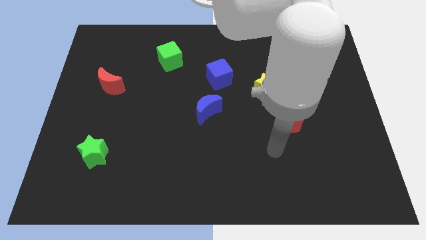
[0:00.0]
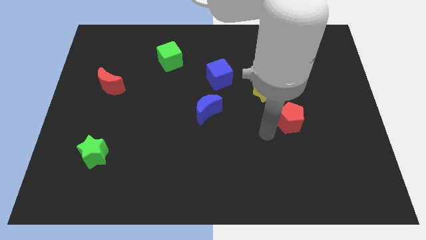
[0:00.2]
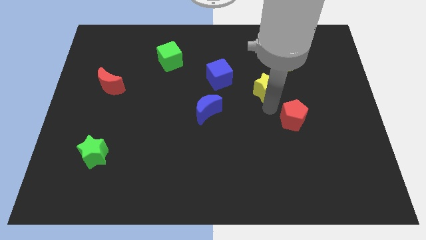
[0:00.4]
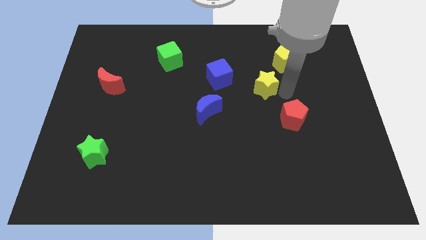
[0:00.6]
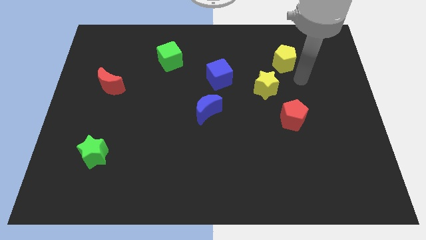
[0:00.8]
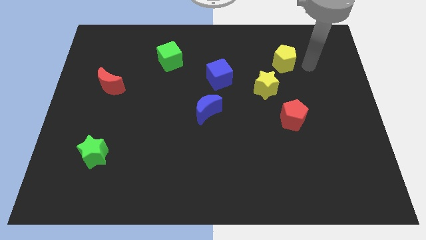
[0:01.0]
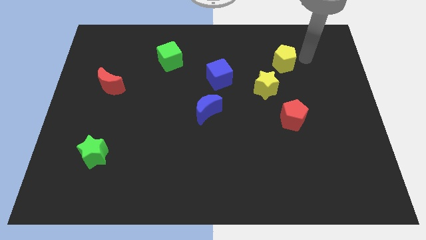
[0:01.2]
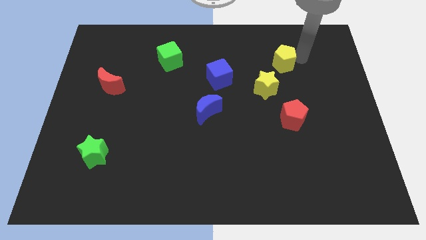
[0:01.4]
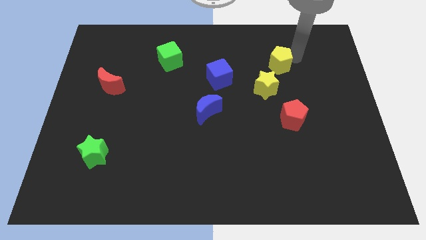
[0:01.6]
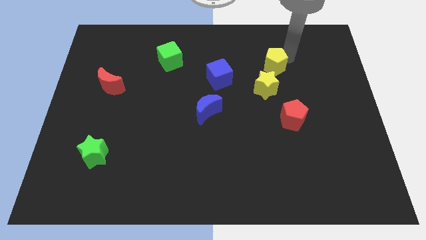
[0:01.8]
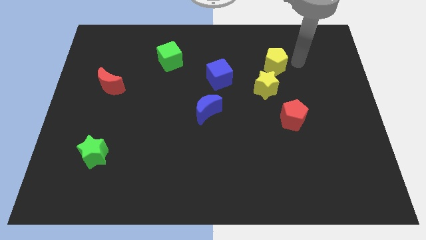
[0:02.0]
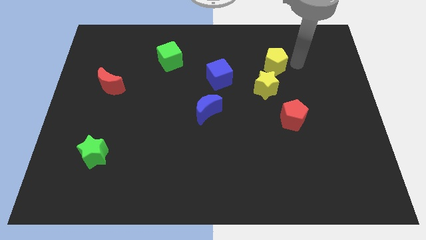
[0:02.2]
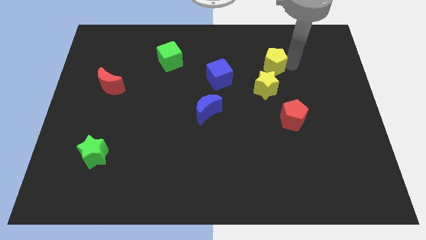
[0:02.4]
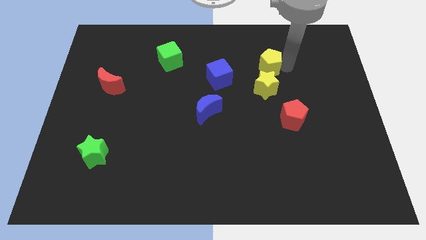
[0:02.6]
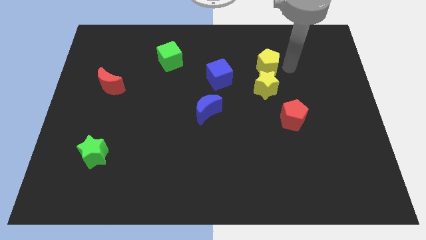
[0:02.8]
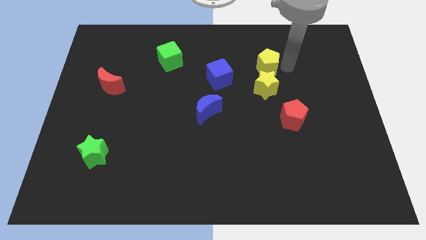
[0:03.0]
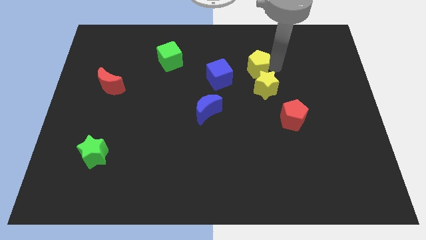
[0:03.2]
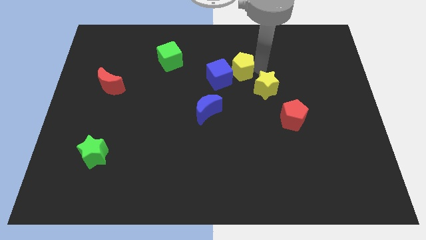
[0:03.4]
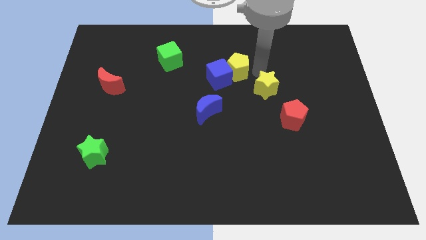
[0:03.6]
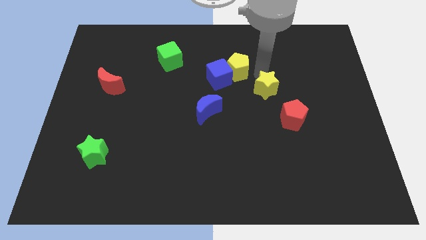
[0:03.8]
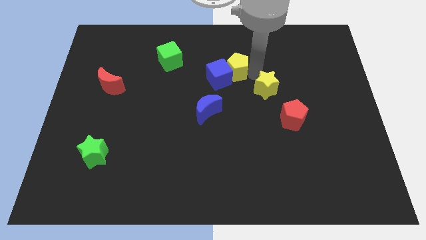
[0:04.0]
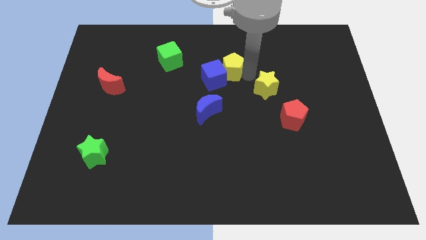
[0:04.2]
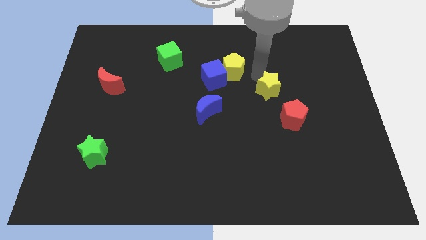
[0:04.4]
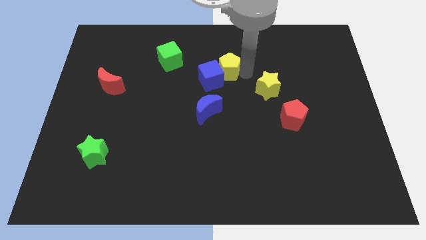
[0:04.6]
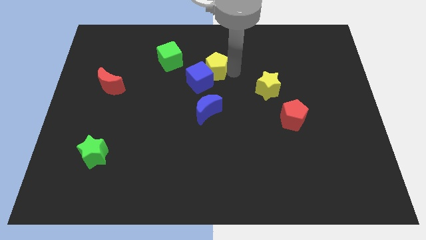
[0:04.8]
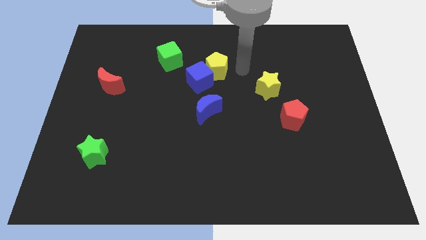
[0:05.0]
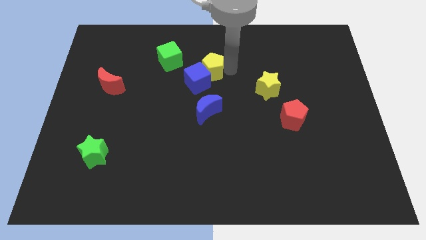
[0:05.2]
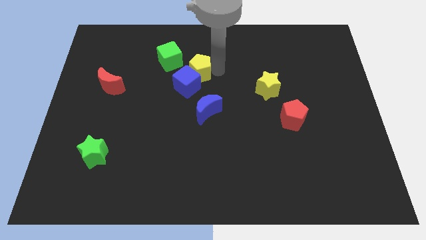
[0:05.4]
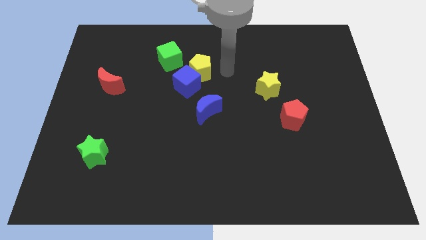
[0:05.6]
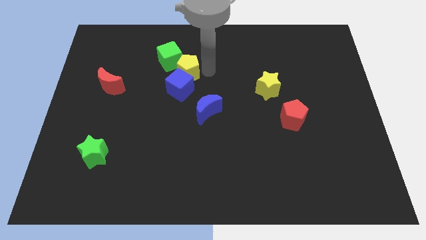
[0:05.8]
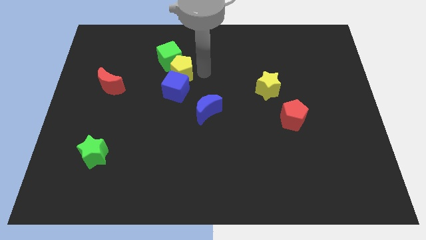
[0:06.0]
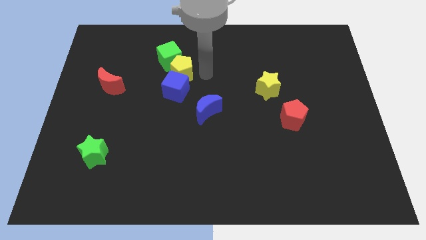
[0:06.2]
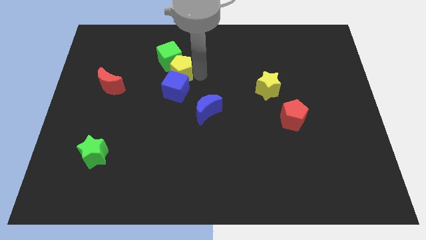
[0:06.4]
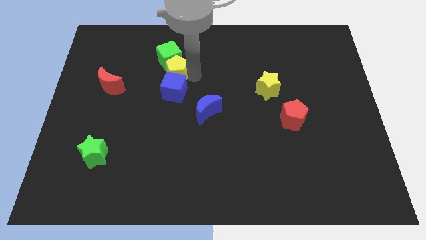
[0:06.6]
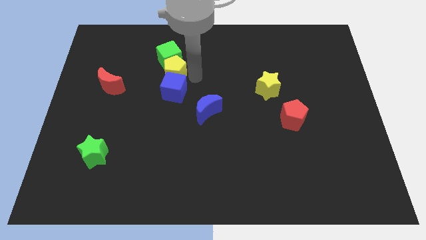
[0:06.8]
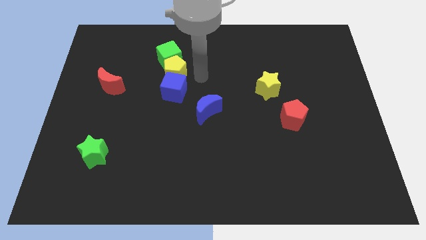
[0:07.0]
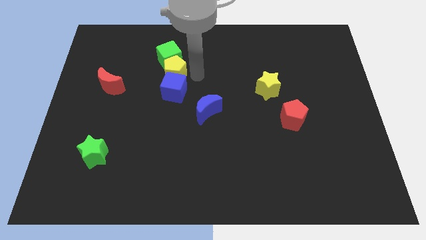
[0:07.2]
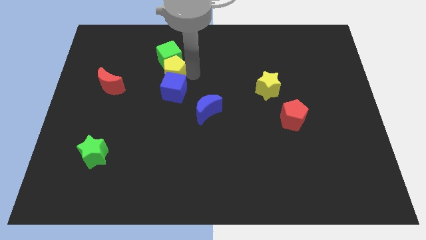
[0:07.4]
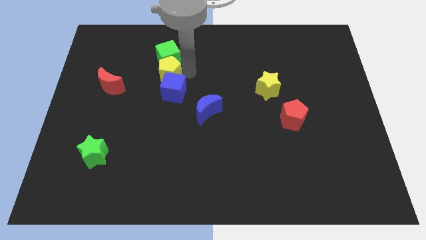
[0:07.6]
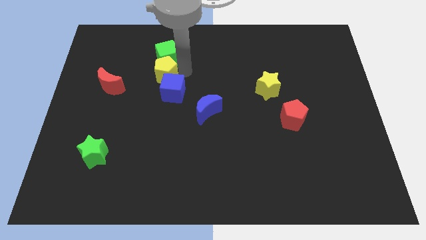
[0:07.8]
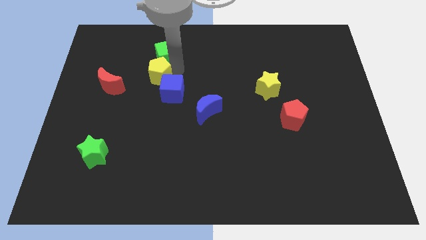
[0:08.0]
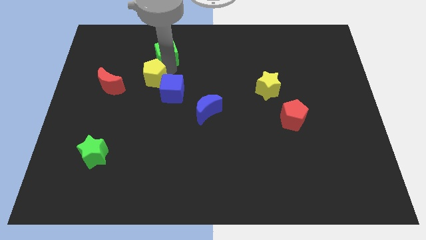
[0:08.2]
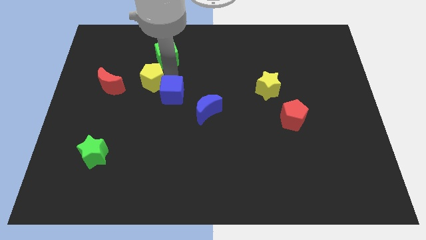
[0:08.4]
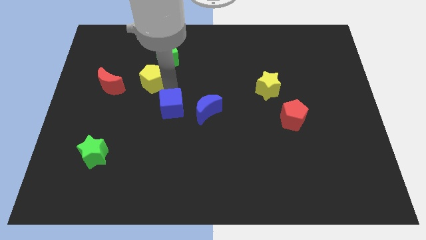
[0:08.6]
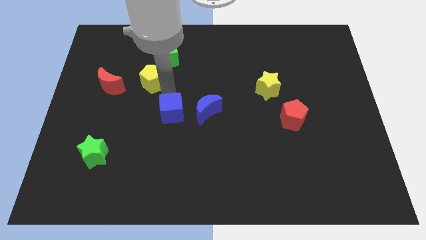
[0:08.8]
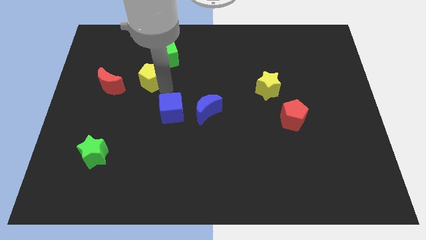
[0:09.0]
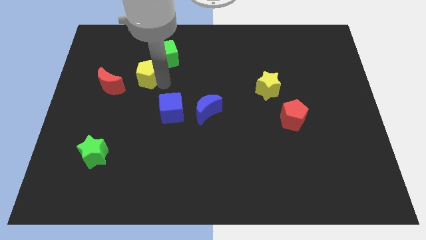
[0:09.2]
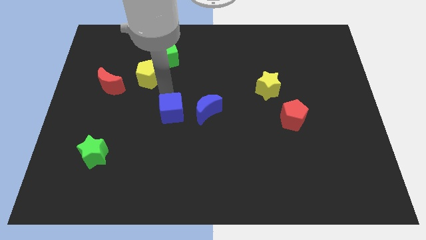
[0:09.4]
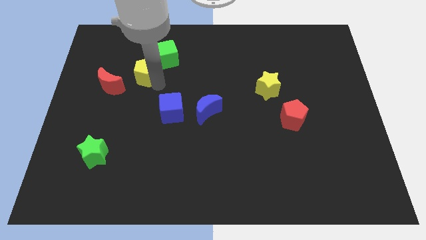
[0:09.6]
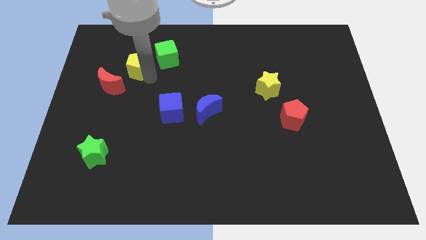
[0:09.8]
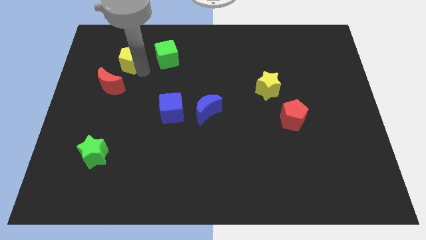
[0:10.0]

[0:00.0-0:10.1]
push the yellow pentagon above the red moon

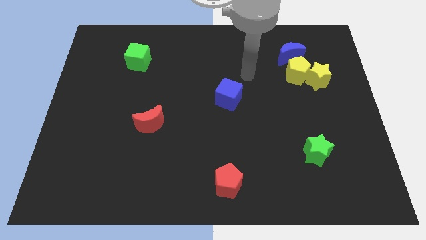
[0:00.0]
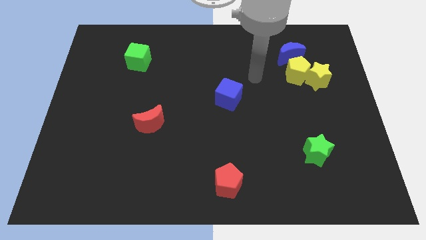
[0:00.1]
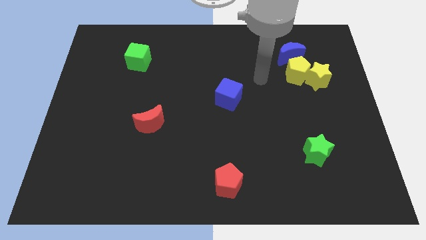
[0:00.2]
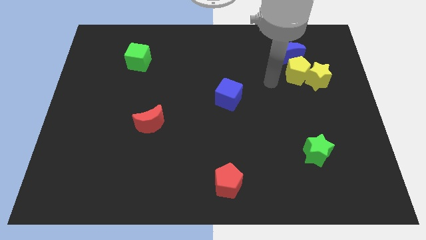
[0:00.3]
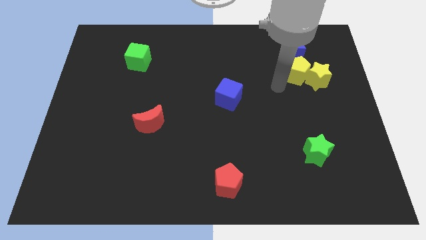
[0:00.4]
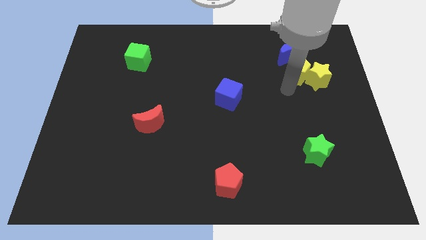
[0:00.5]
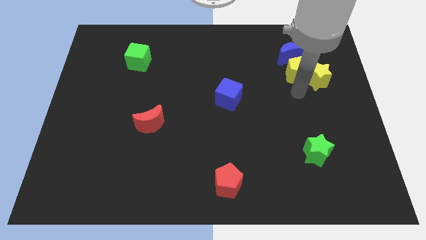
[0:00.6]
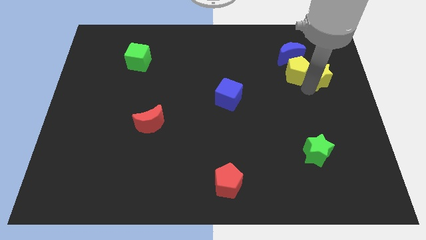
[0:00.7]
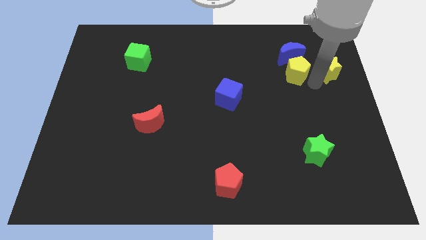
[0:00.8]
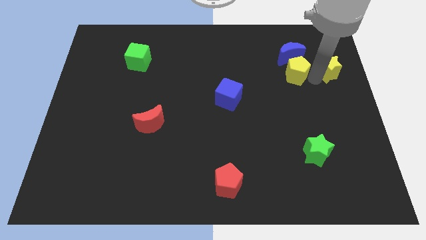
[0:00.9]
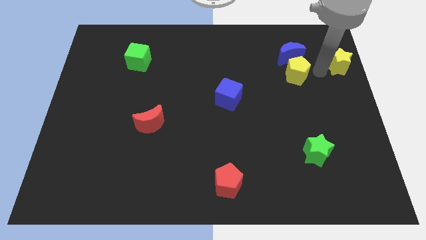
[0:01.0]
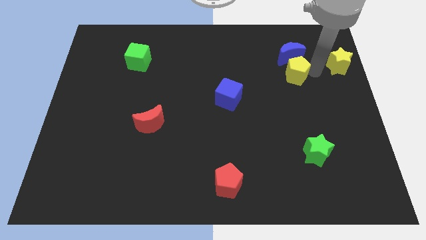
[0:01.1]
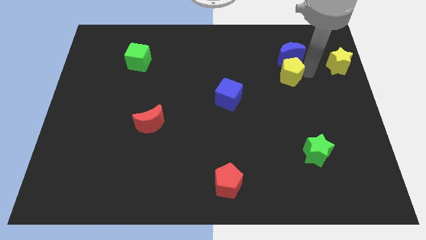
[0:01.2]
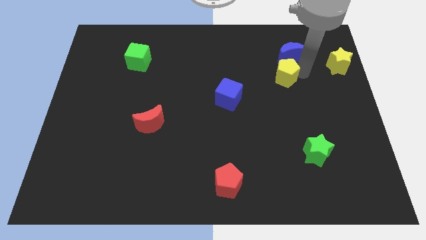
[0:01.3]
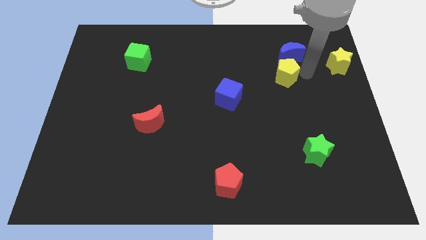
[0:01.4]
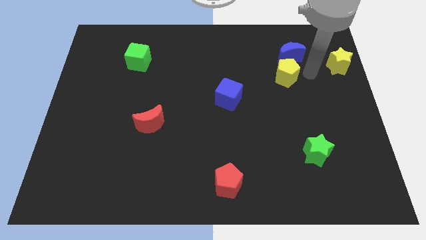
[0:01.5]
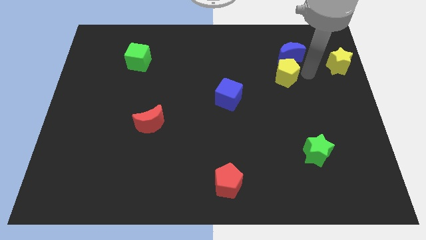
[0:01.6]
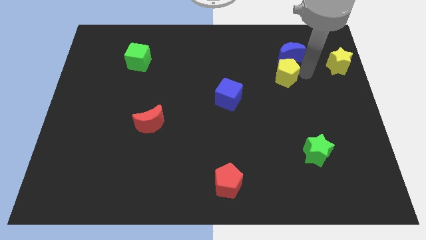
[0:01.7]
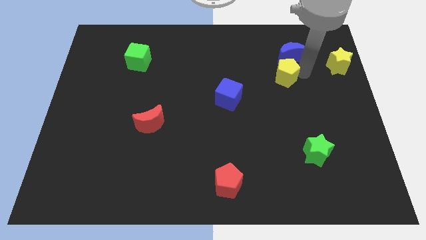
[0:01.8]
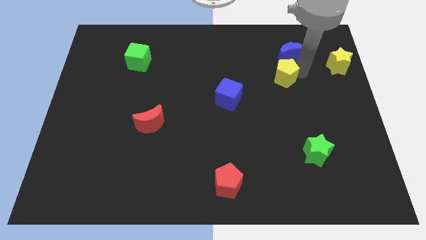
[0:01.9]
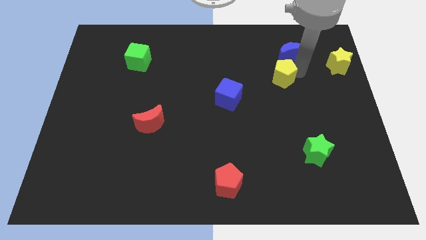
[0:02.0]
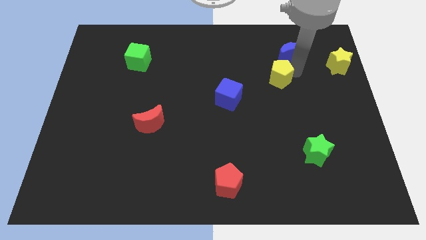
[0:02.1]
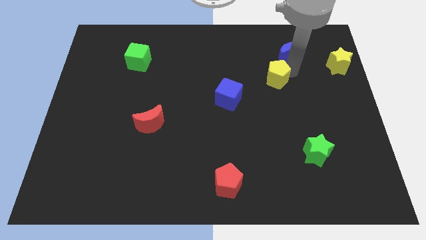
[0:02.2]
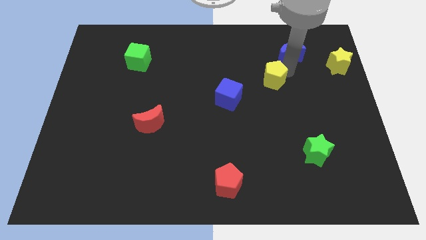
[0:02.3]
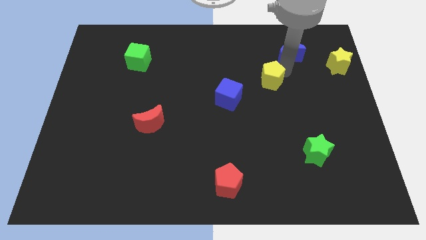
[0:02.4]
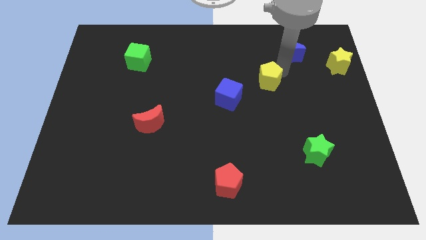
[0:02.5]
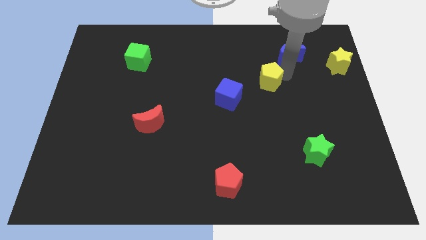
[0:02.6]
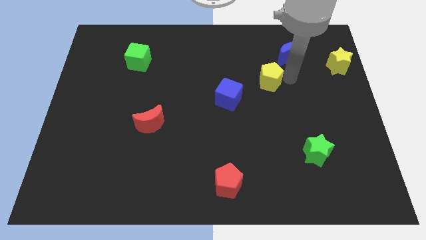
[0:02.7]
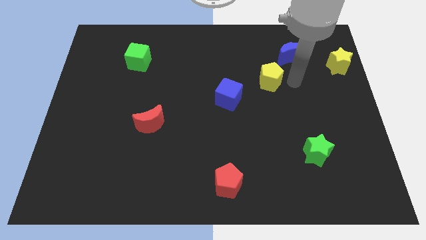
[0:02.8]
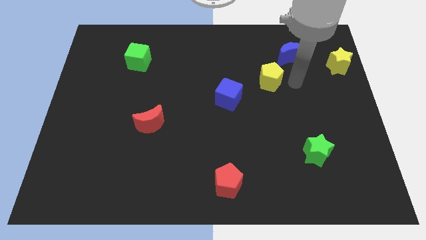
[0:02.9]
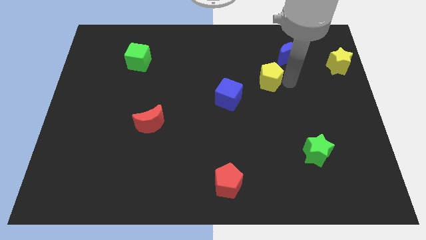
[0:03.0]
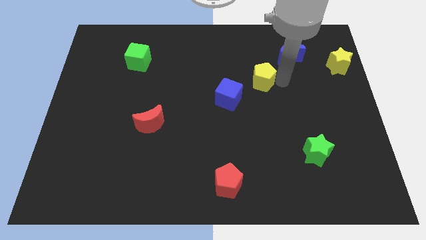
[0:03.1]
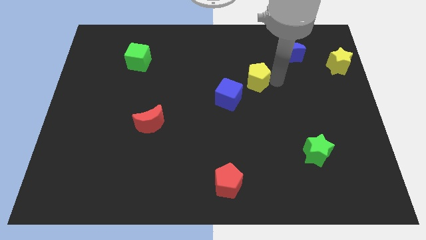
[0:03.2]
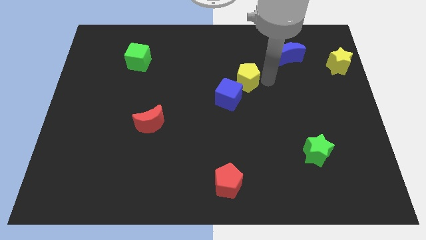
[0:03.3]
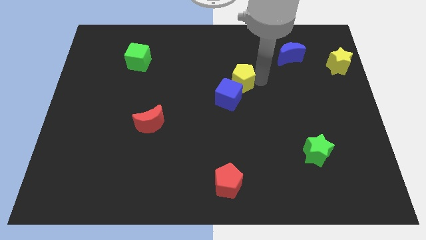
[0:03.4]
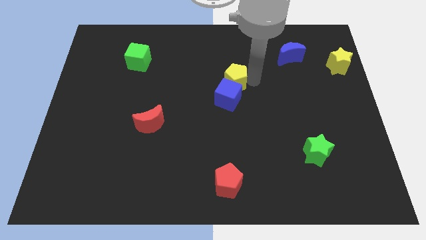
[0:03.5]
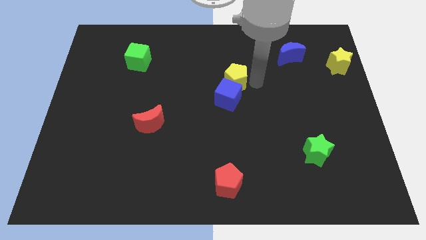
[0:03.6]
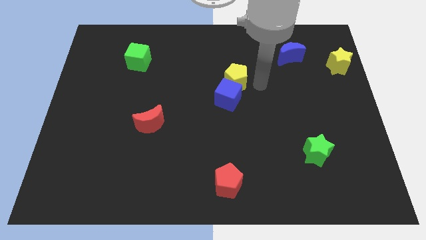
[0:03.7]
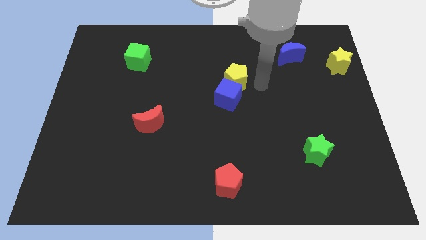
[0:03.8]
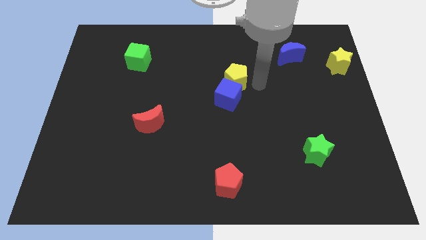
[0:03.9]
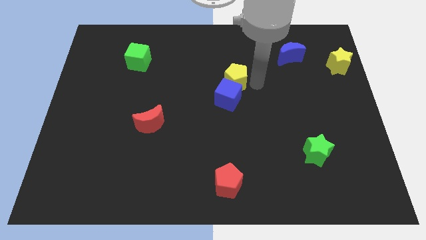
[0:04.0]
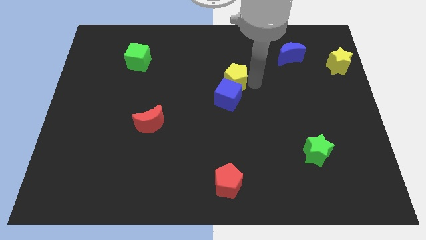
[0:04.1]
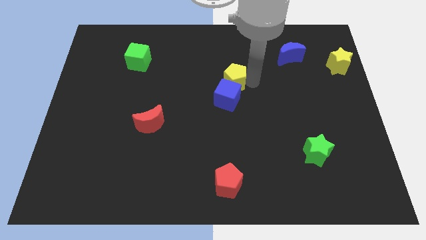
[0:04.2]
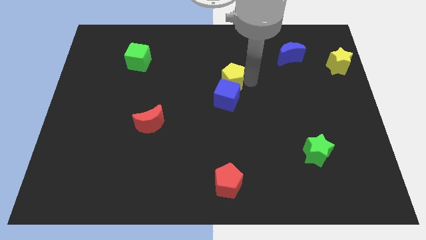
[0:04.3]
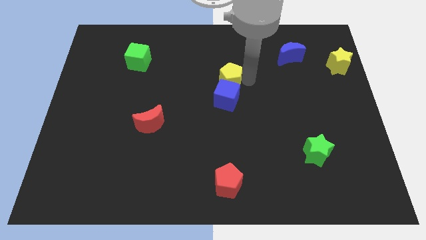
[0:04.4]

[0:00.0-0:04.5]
slide the yellow pentagon to the top left of the blue cube
